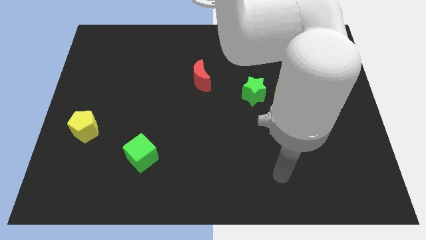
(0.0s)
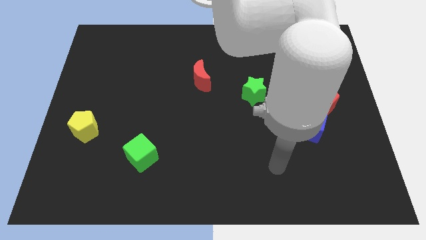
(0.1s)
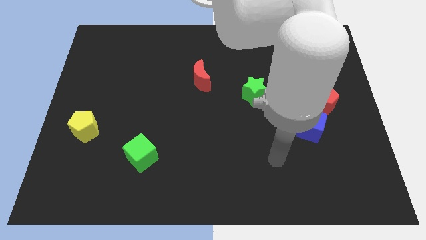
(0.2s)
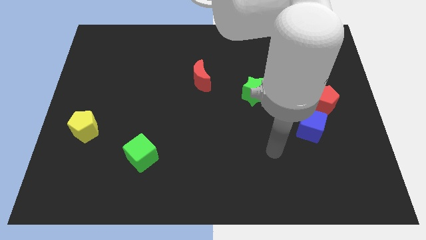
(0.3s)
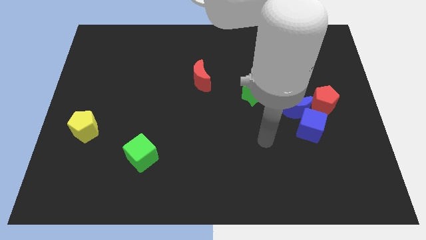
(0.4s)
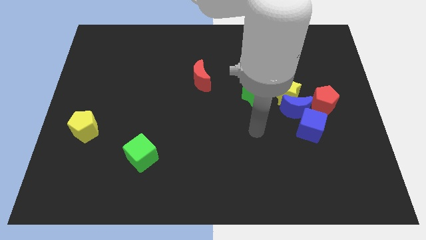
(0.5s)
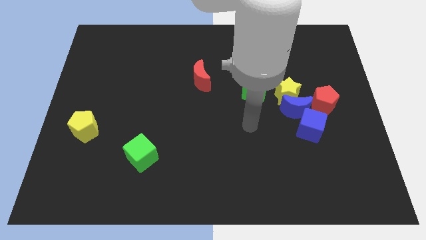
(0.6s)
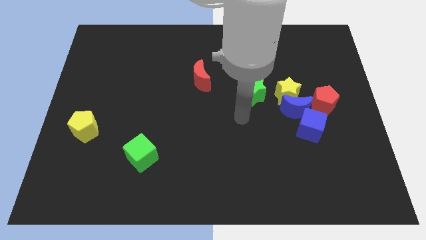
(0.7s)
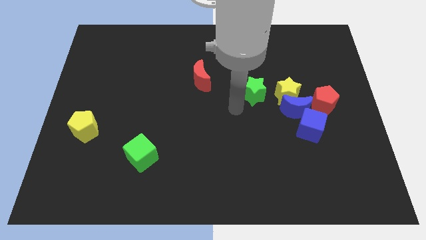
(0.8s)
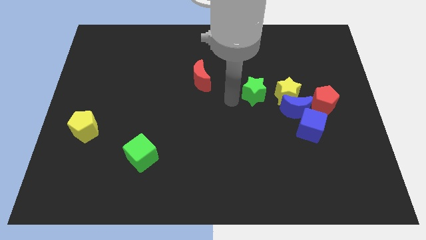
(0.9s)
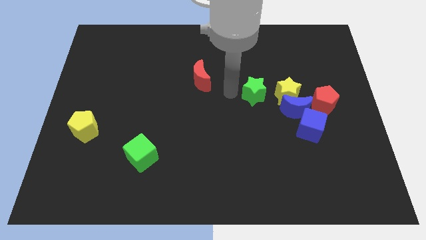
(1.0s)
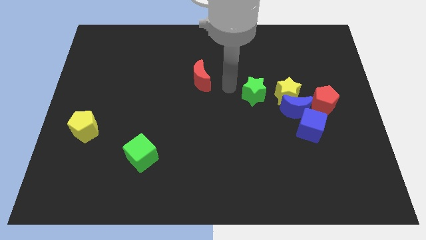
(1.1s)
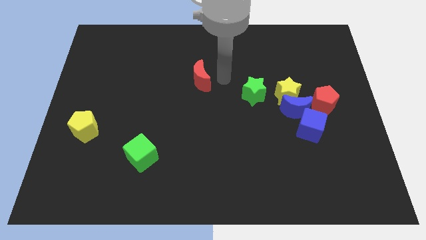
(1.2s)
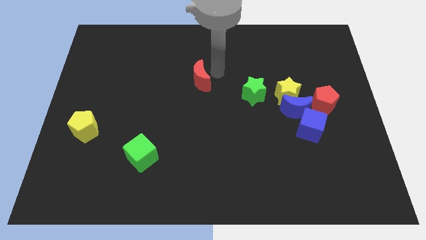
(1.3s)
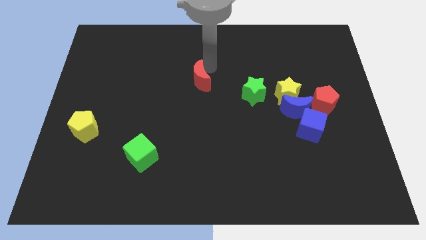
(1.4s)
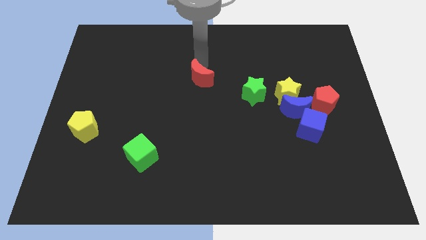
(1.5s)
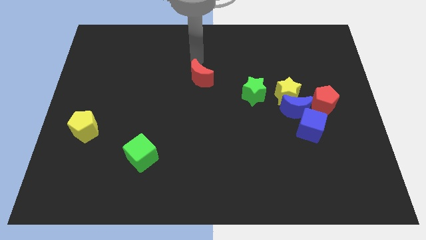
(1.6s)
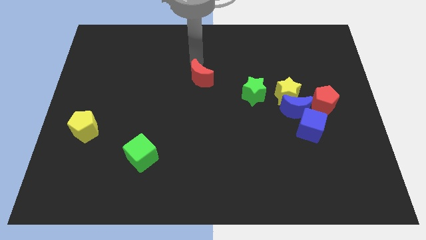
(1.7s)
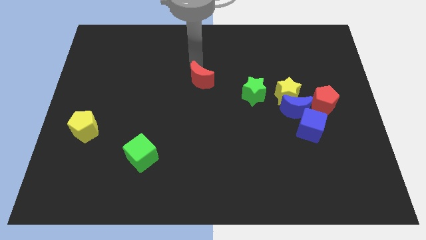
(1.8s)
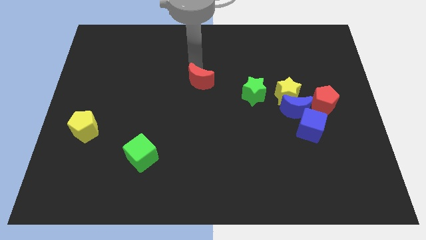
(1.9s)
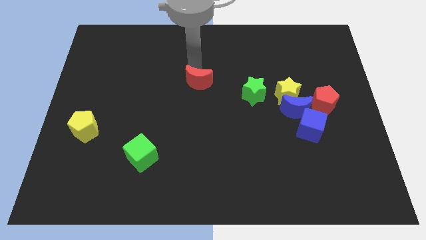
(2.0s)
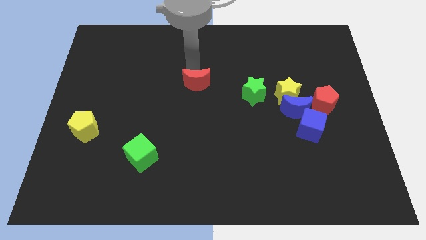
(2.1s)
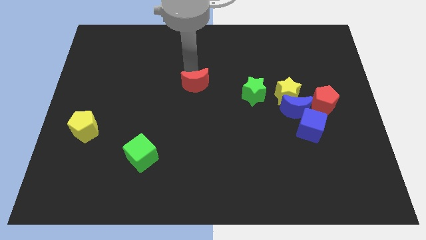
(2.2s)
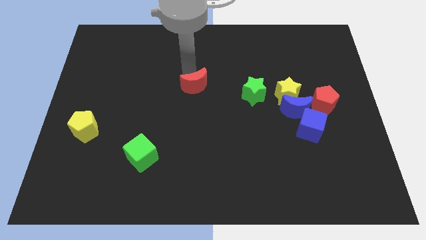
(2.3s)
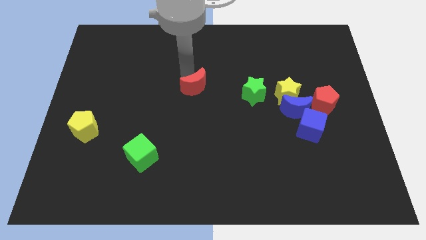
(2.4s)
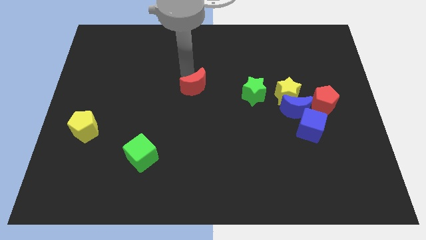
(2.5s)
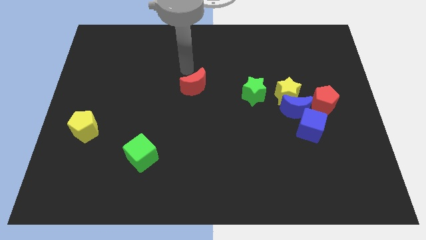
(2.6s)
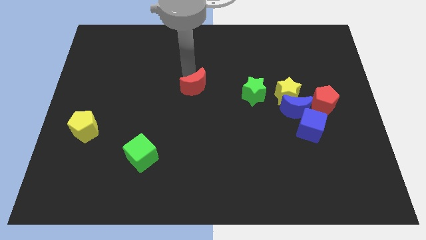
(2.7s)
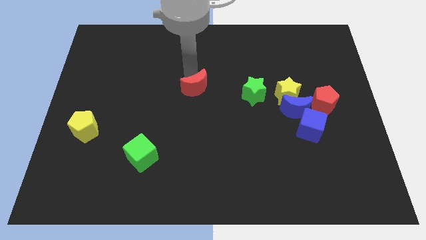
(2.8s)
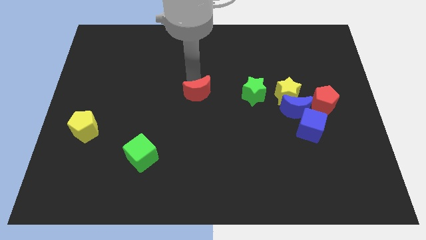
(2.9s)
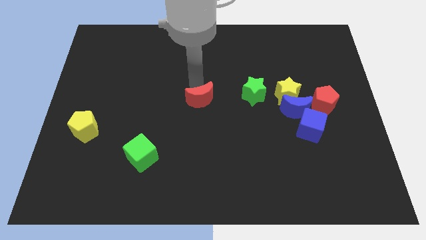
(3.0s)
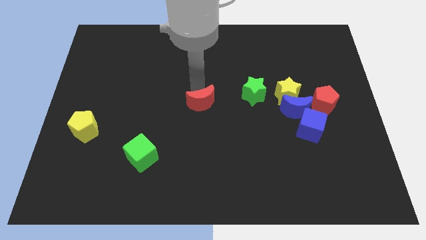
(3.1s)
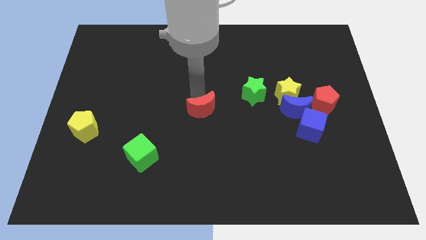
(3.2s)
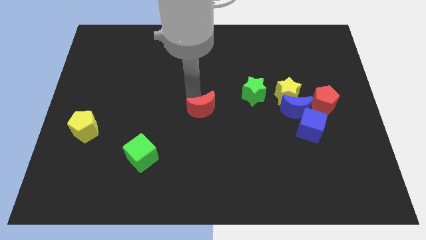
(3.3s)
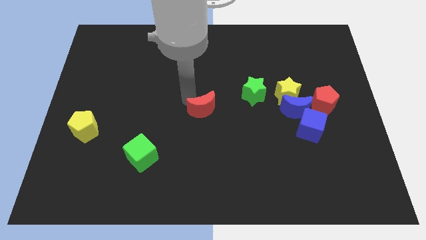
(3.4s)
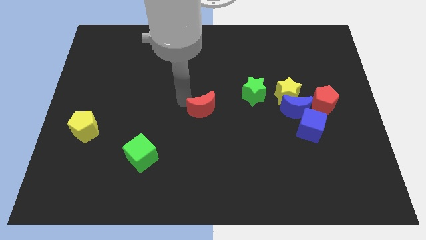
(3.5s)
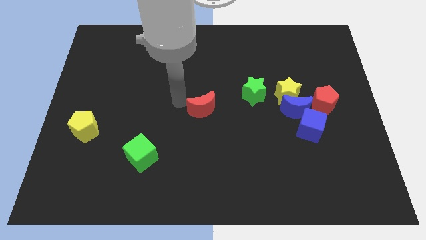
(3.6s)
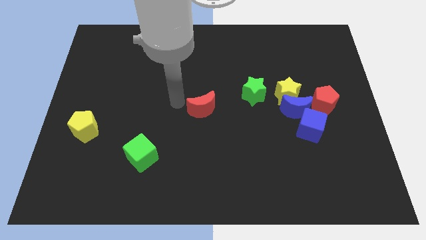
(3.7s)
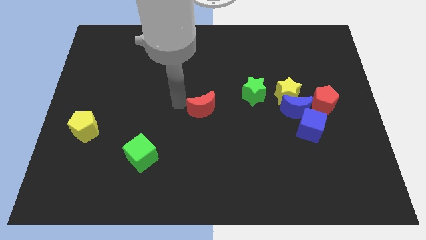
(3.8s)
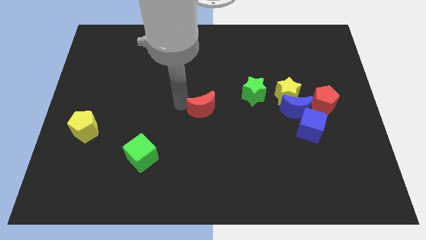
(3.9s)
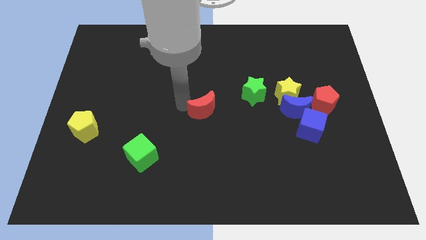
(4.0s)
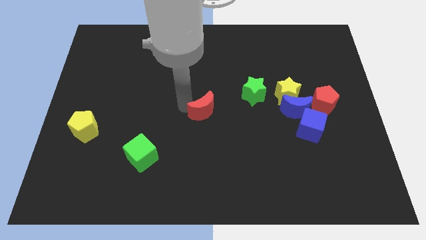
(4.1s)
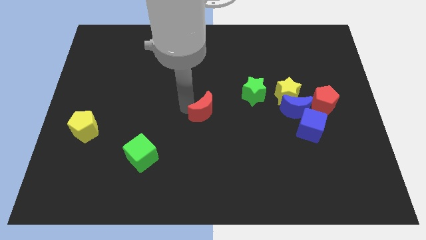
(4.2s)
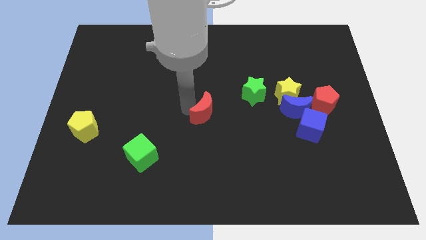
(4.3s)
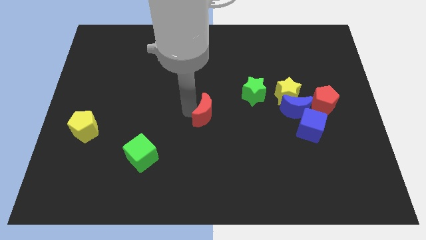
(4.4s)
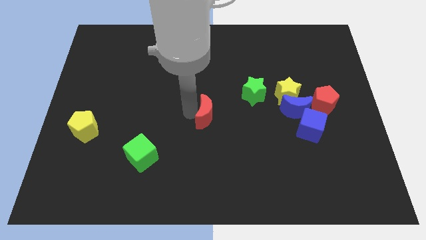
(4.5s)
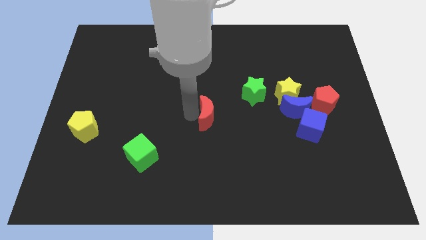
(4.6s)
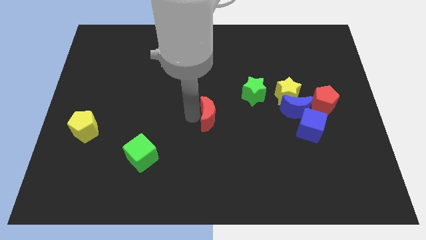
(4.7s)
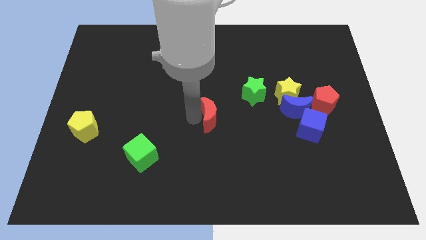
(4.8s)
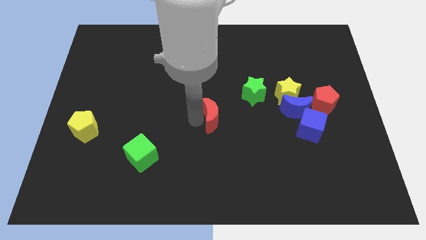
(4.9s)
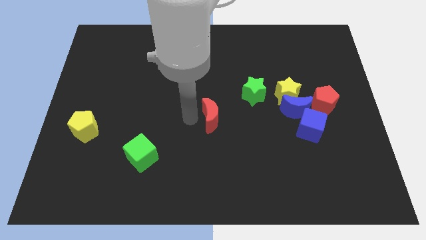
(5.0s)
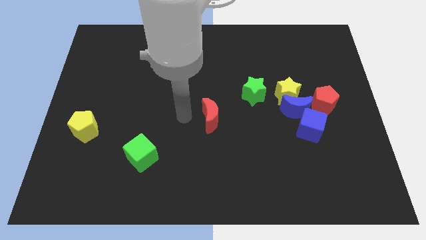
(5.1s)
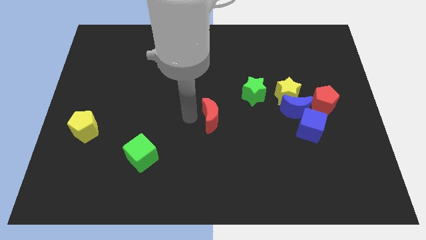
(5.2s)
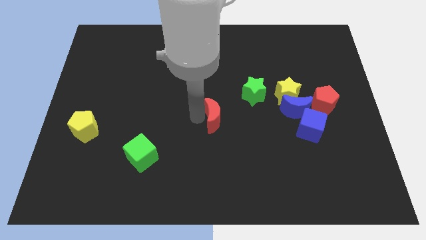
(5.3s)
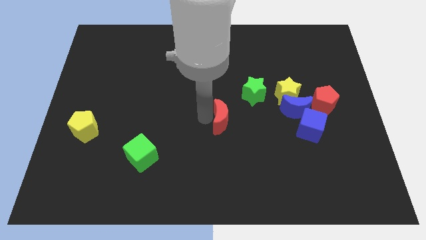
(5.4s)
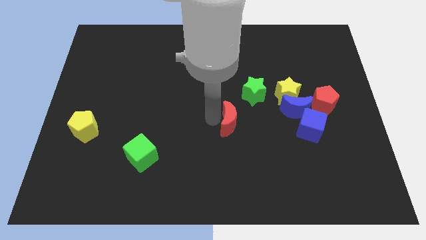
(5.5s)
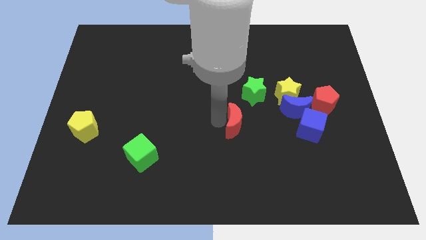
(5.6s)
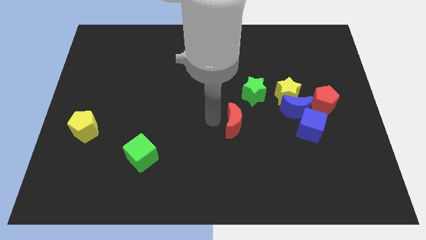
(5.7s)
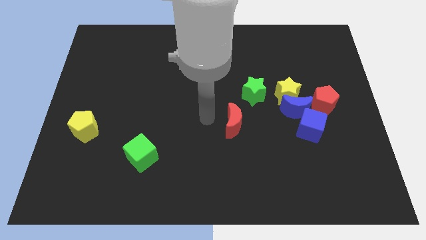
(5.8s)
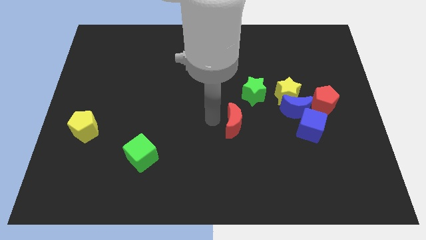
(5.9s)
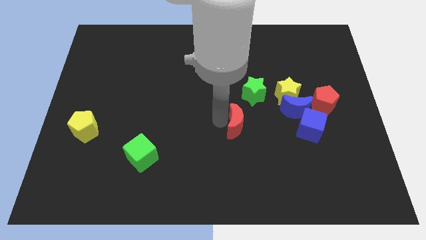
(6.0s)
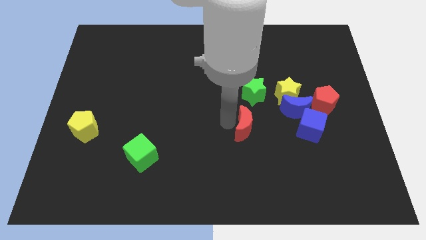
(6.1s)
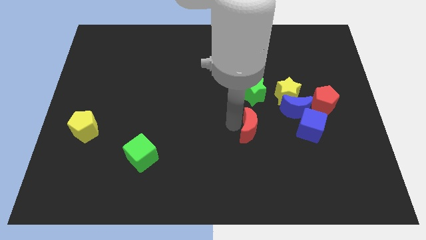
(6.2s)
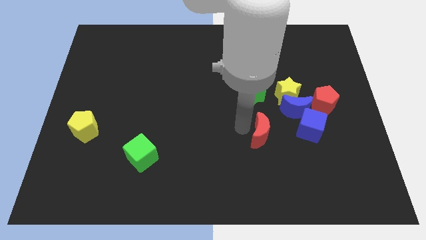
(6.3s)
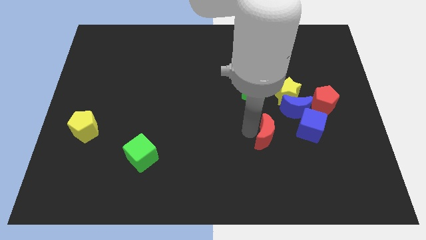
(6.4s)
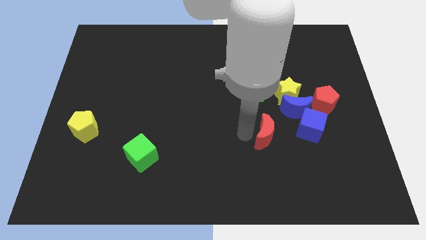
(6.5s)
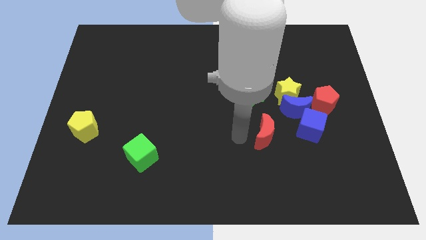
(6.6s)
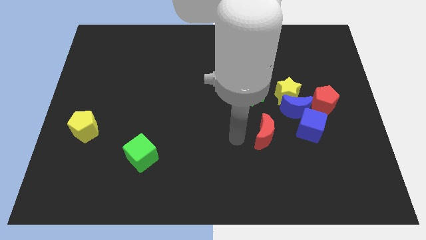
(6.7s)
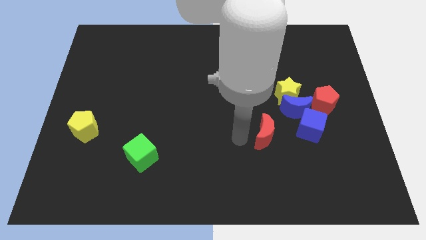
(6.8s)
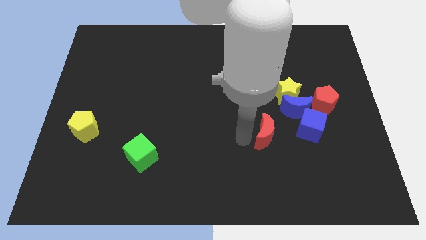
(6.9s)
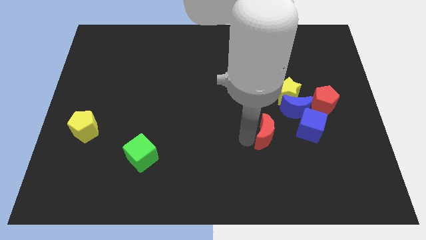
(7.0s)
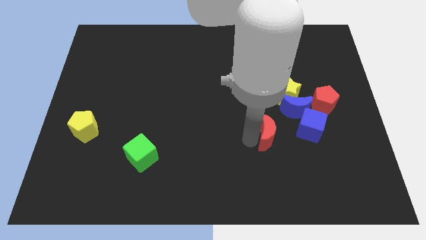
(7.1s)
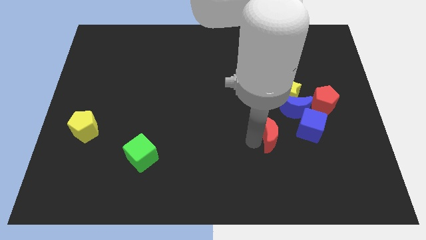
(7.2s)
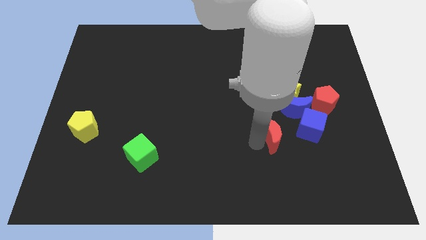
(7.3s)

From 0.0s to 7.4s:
slide the red moon to the bottom of the yellow star
